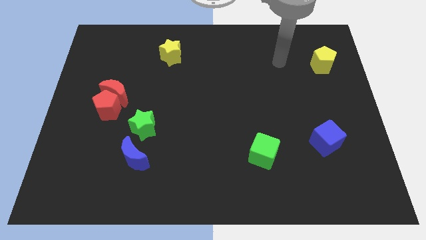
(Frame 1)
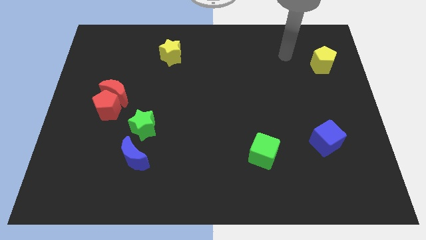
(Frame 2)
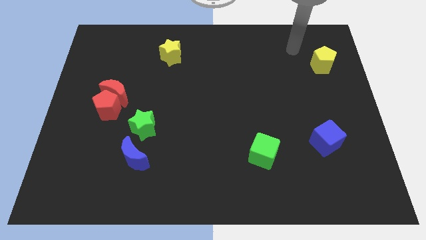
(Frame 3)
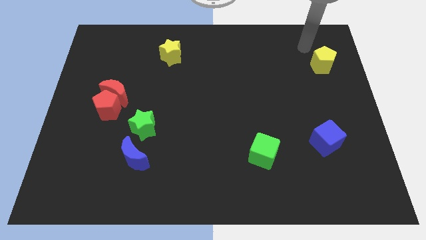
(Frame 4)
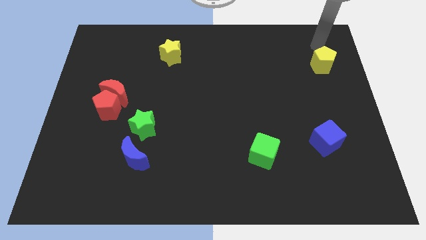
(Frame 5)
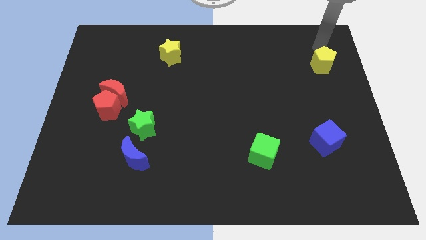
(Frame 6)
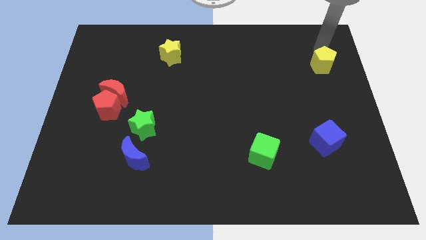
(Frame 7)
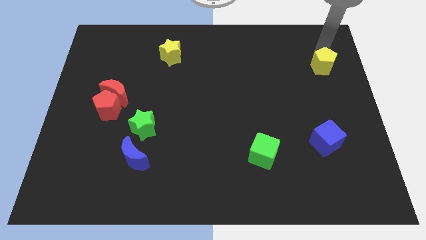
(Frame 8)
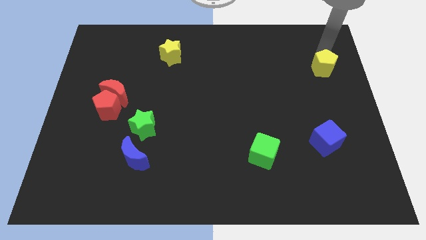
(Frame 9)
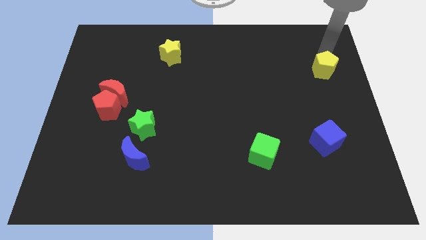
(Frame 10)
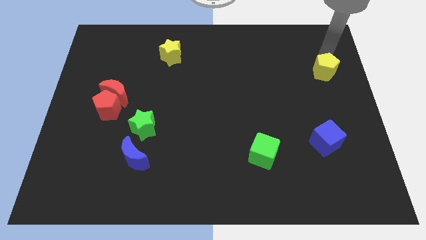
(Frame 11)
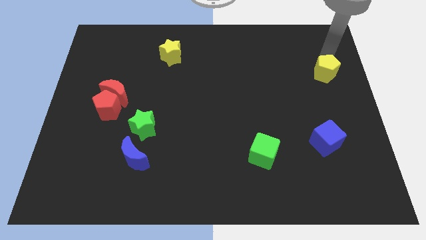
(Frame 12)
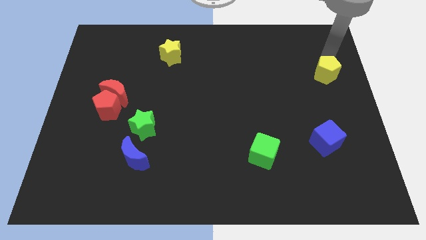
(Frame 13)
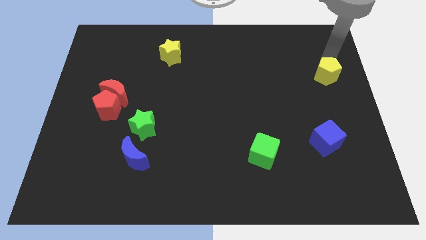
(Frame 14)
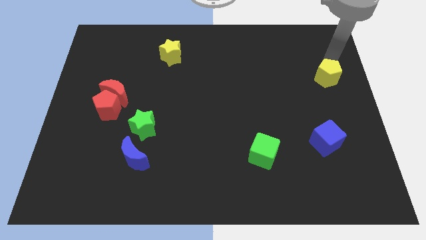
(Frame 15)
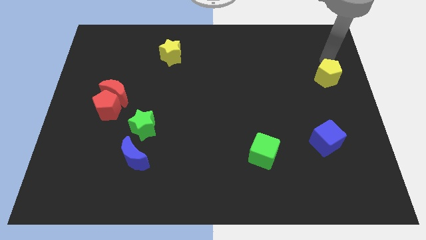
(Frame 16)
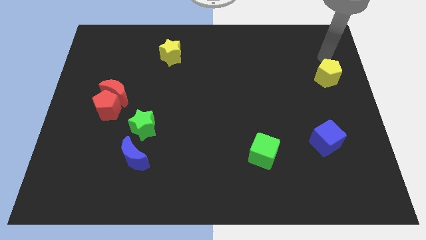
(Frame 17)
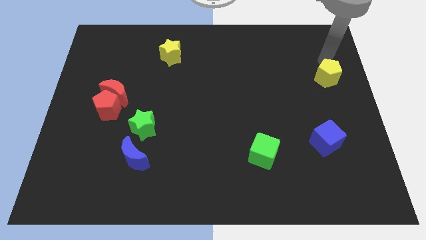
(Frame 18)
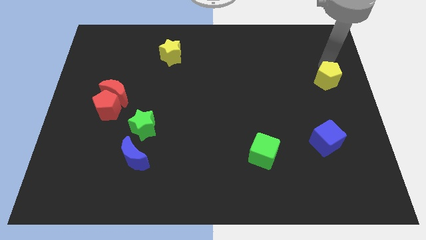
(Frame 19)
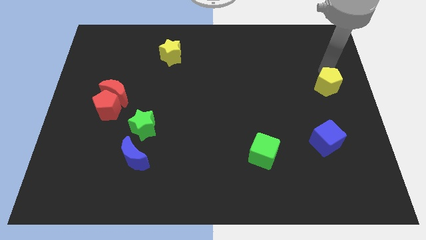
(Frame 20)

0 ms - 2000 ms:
slide the yellow pentagon downwards slightly

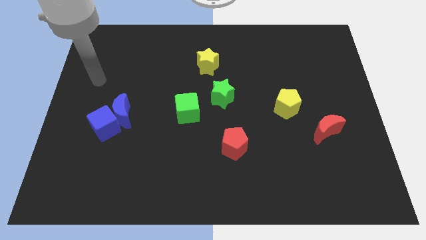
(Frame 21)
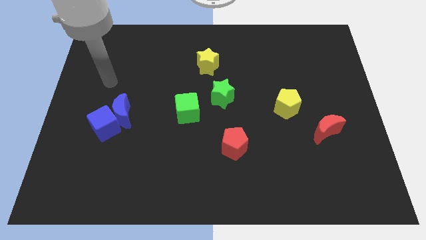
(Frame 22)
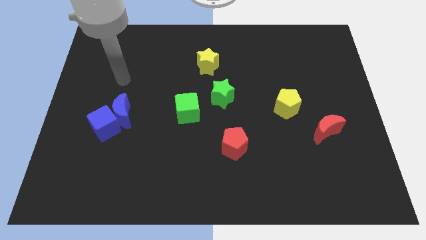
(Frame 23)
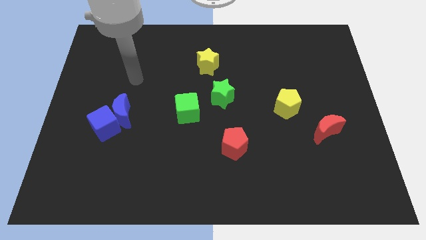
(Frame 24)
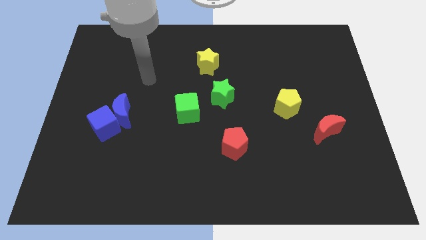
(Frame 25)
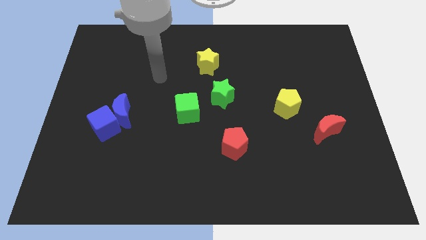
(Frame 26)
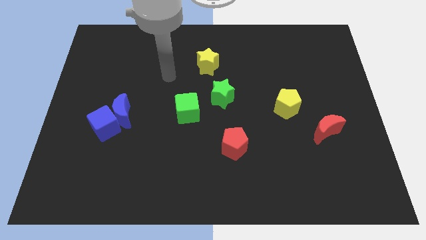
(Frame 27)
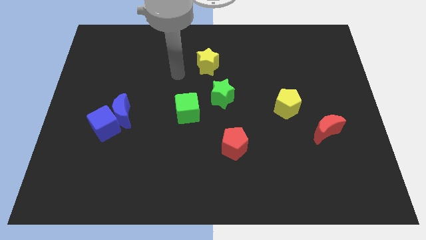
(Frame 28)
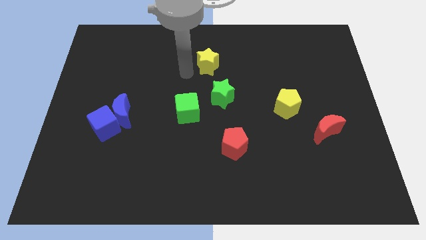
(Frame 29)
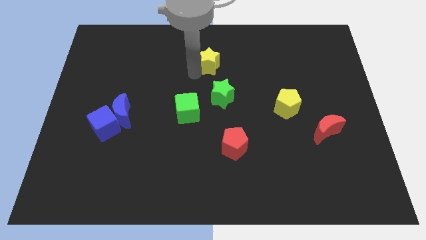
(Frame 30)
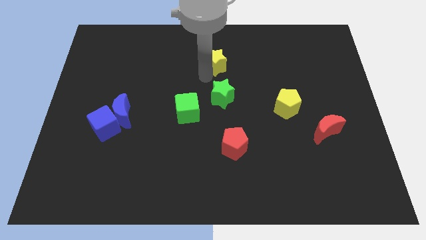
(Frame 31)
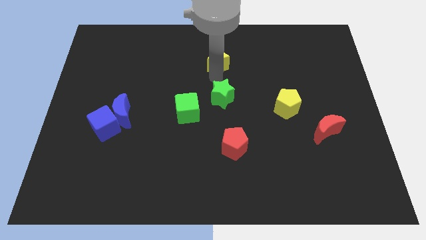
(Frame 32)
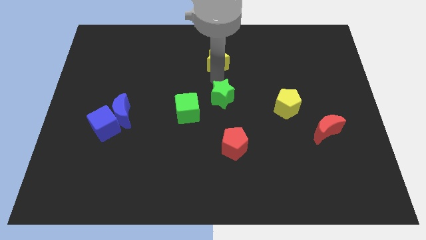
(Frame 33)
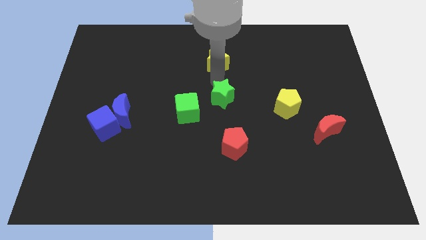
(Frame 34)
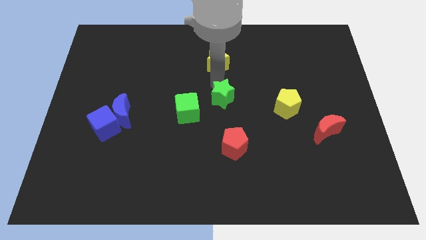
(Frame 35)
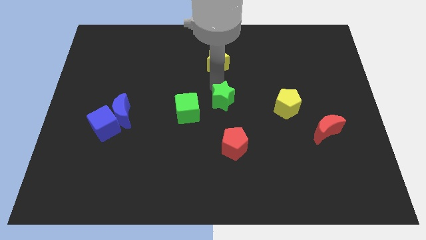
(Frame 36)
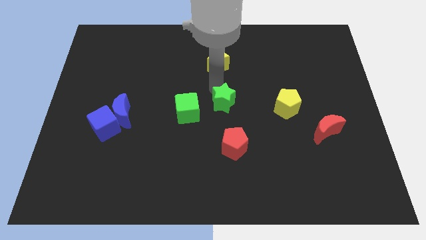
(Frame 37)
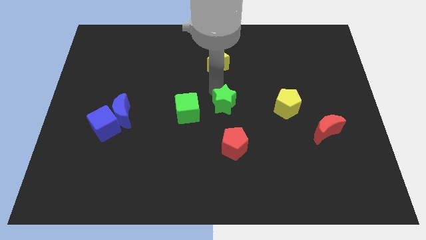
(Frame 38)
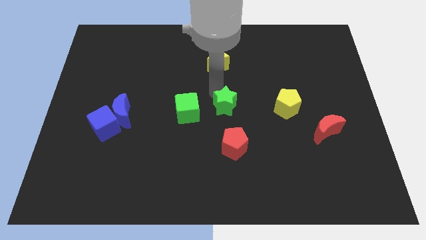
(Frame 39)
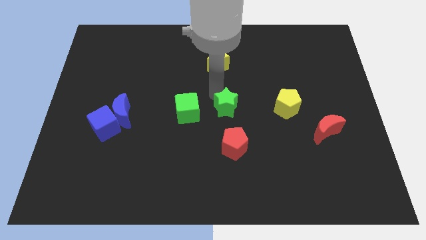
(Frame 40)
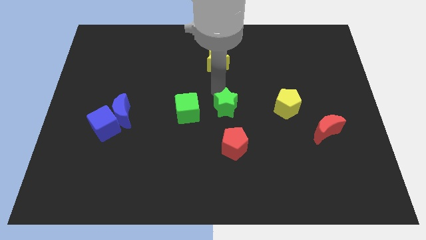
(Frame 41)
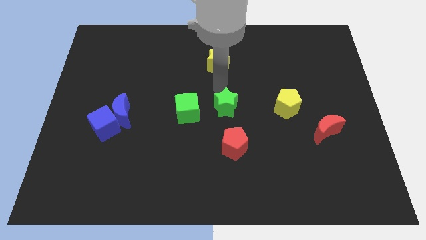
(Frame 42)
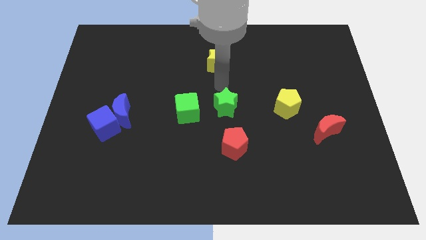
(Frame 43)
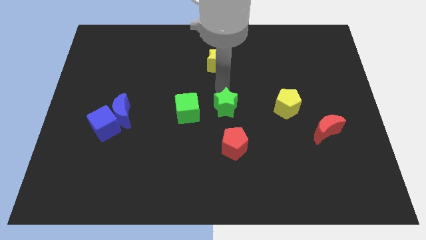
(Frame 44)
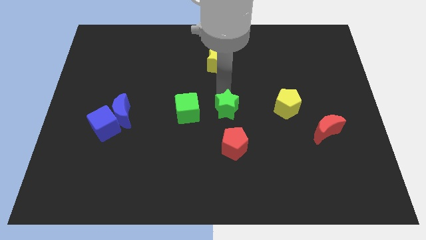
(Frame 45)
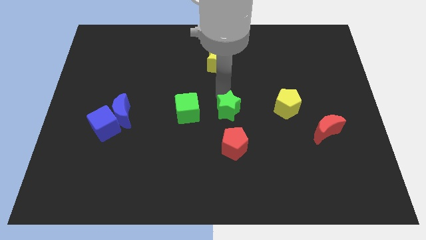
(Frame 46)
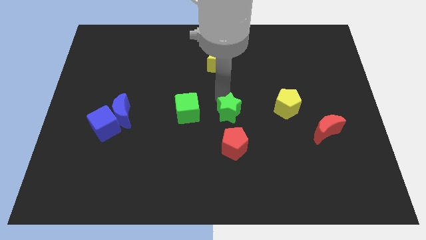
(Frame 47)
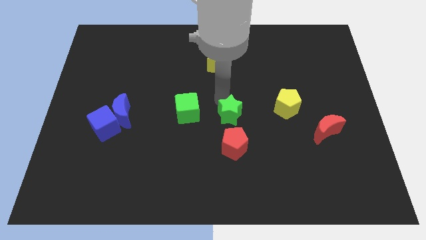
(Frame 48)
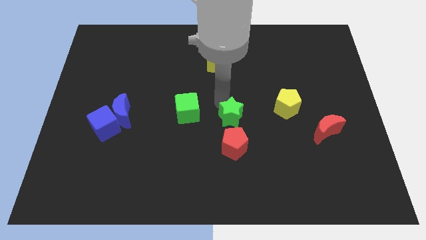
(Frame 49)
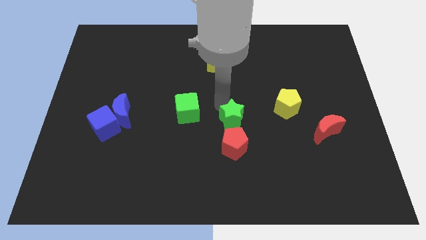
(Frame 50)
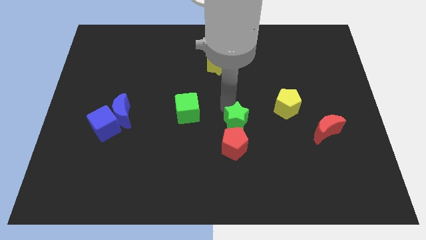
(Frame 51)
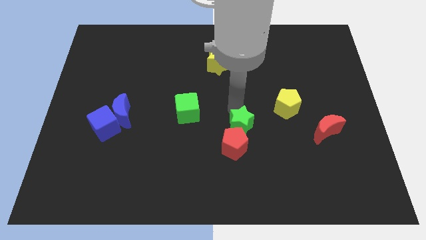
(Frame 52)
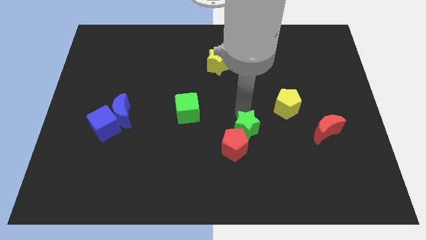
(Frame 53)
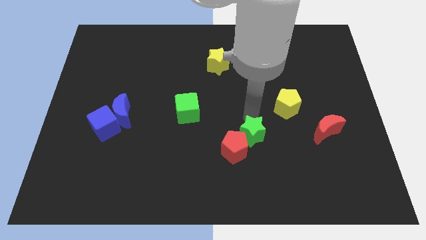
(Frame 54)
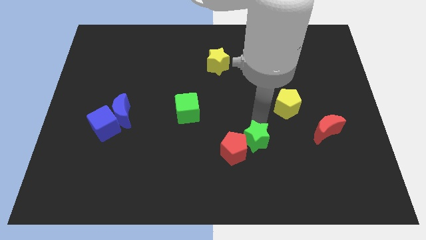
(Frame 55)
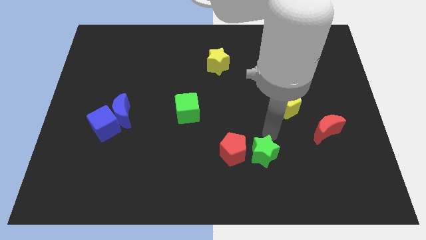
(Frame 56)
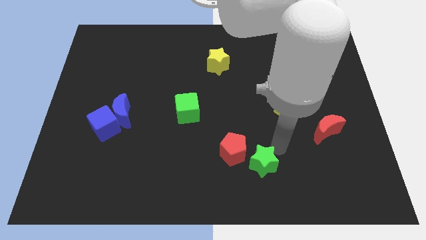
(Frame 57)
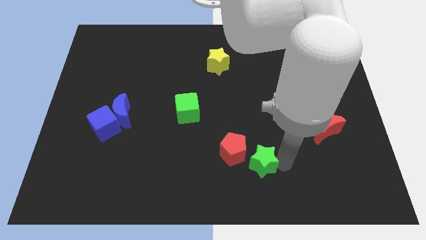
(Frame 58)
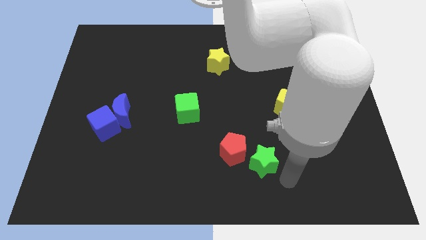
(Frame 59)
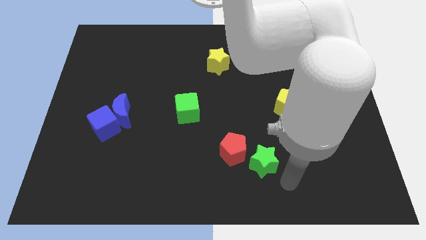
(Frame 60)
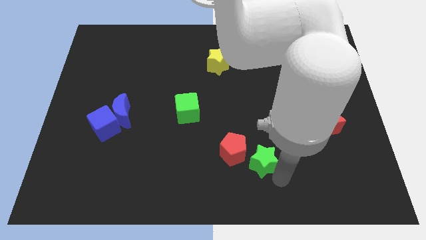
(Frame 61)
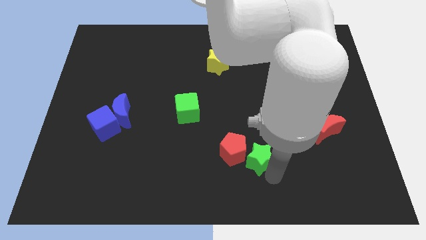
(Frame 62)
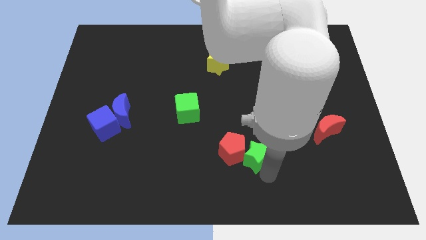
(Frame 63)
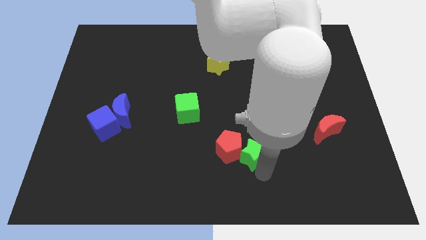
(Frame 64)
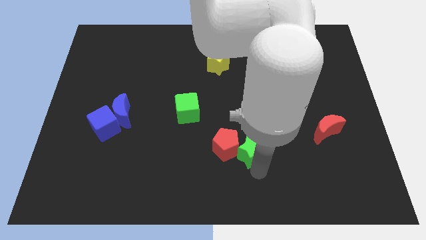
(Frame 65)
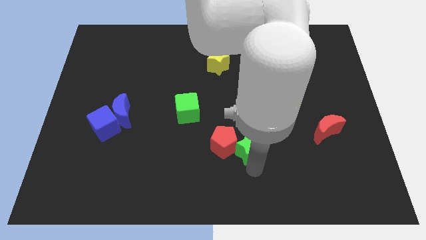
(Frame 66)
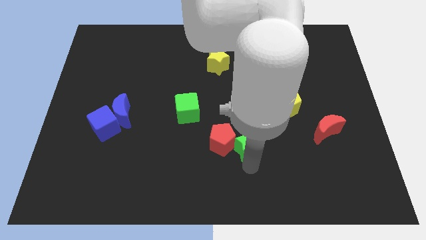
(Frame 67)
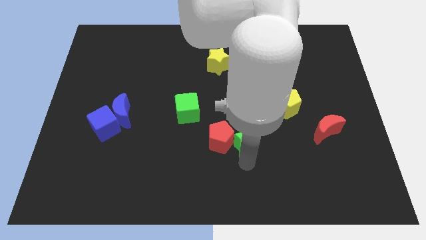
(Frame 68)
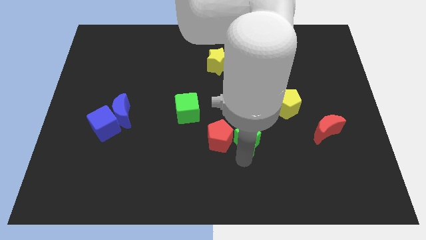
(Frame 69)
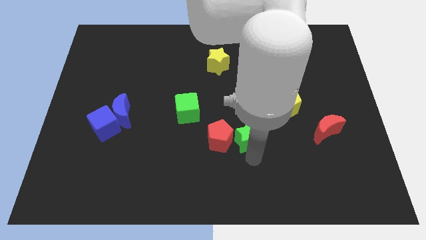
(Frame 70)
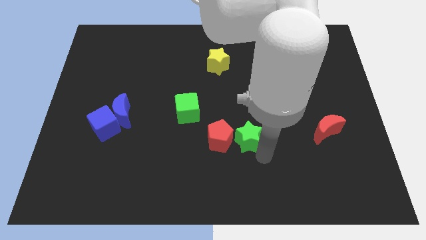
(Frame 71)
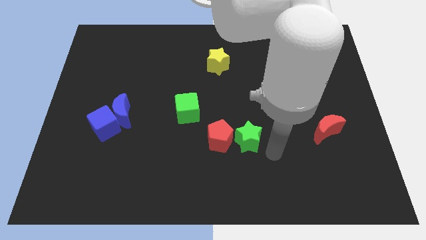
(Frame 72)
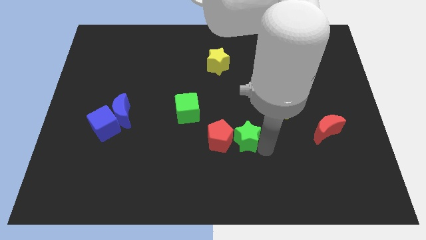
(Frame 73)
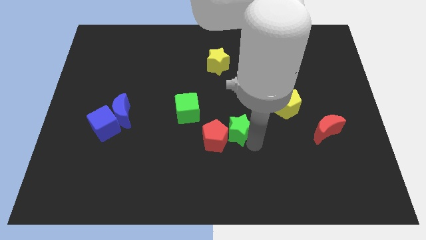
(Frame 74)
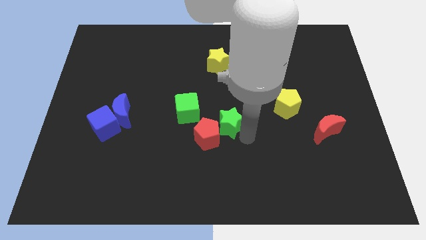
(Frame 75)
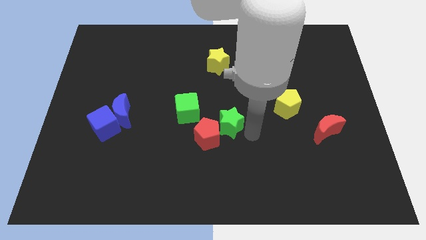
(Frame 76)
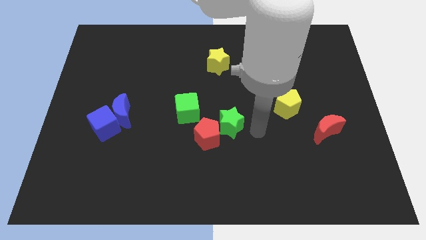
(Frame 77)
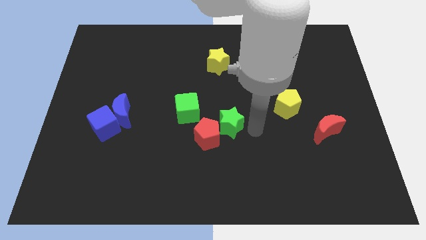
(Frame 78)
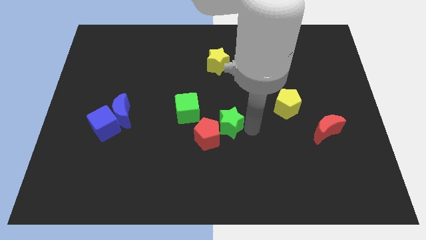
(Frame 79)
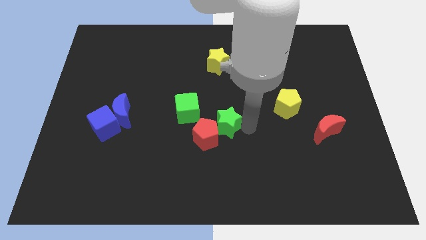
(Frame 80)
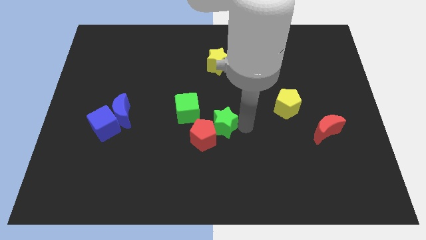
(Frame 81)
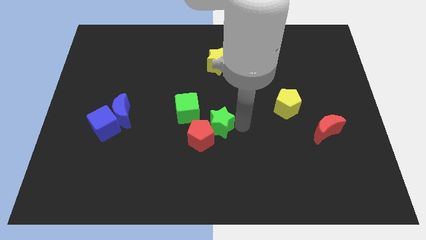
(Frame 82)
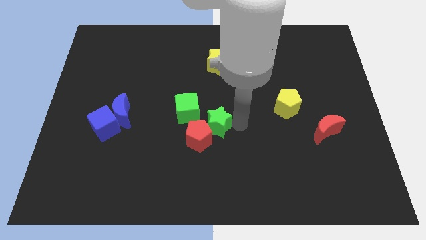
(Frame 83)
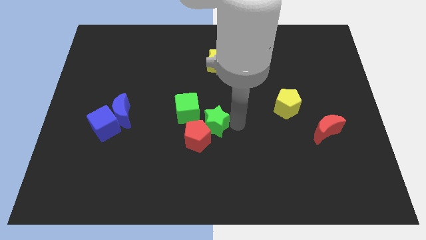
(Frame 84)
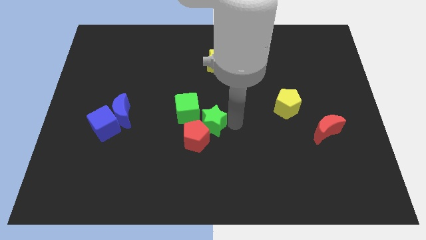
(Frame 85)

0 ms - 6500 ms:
move the green star somewhat downwards and left diagonally
